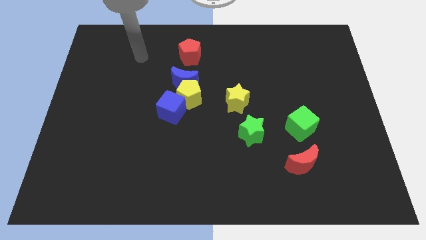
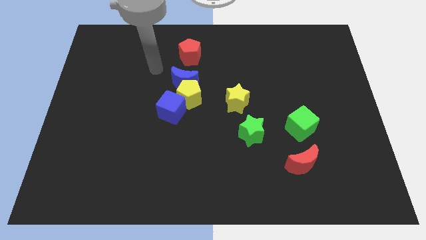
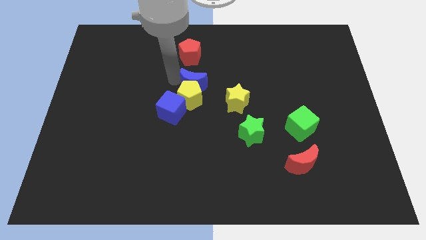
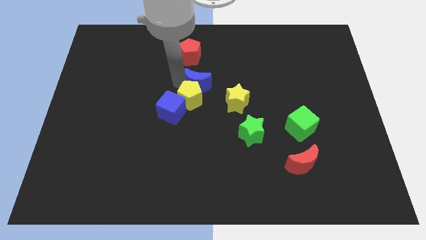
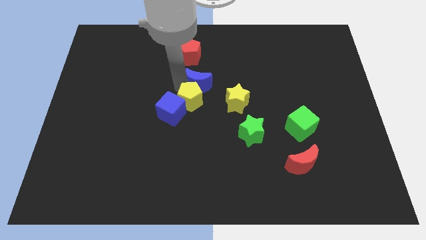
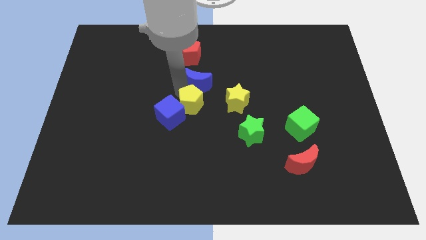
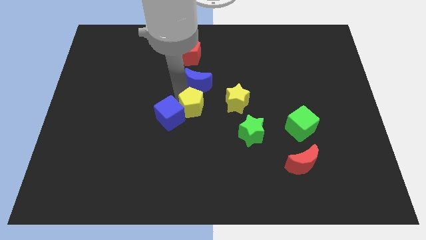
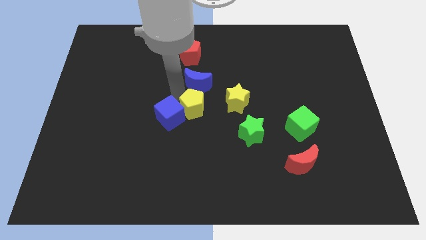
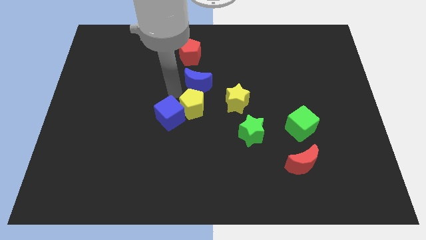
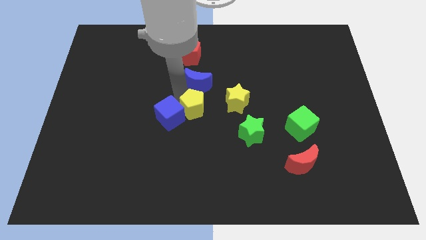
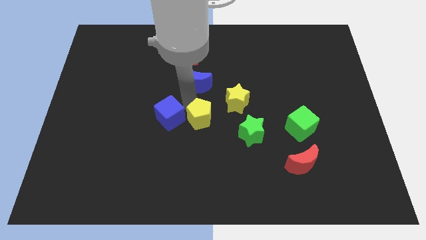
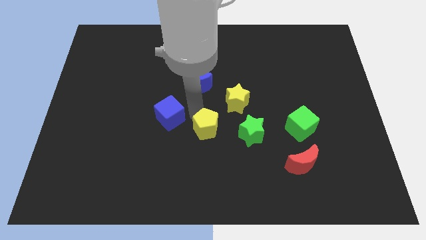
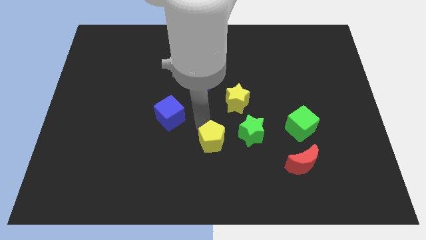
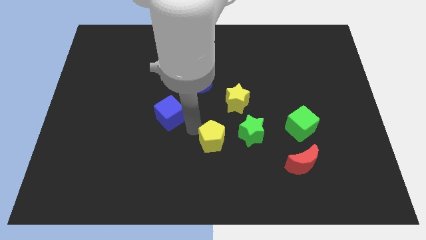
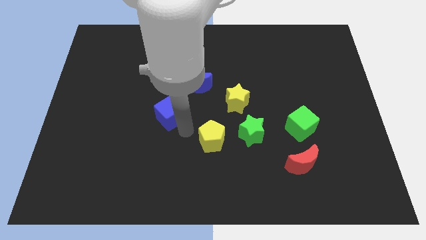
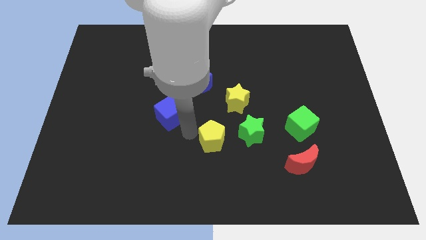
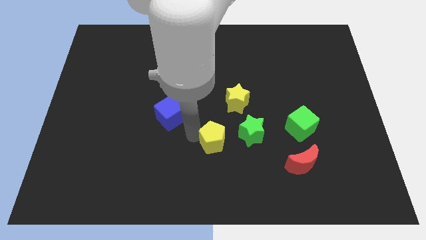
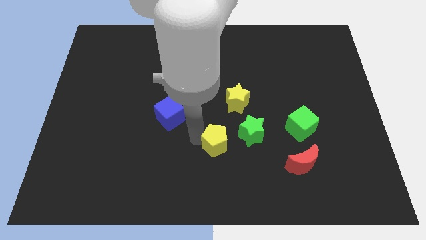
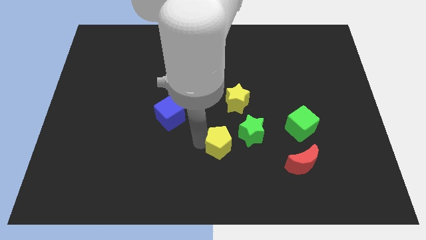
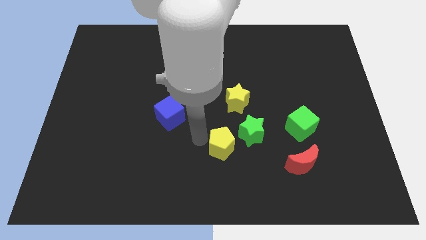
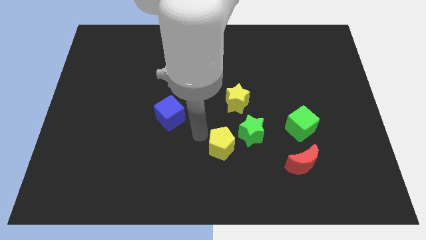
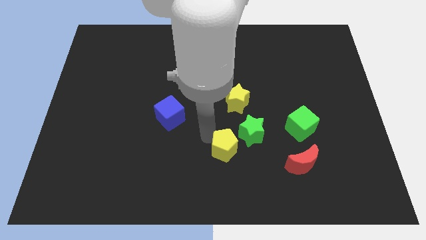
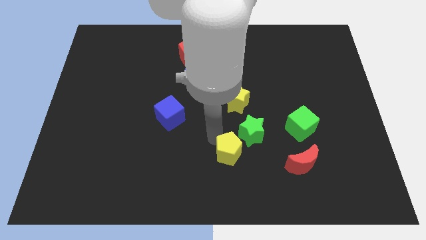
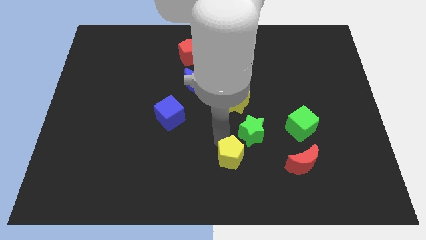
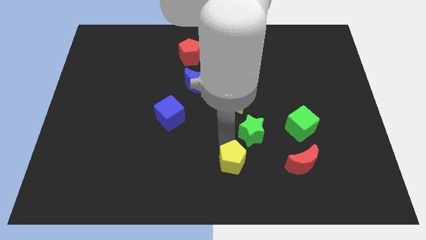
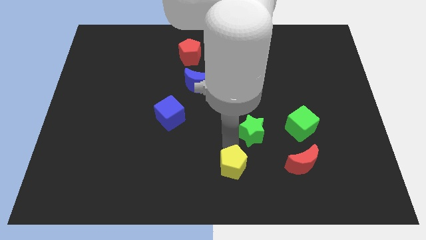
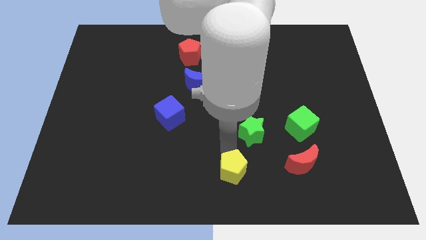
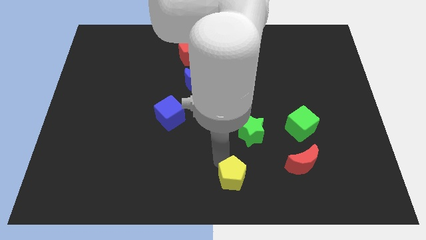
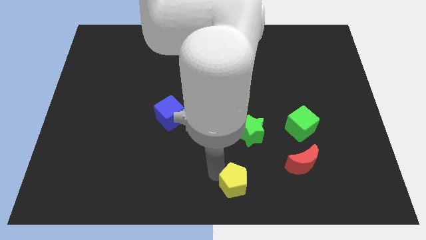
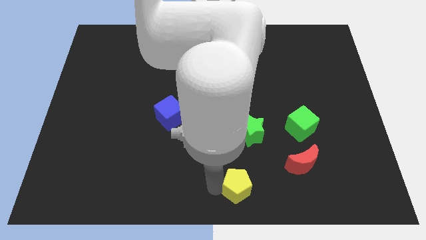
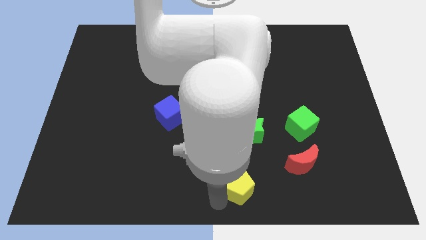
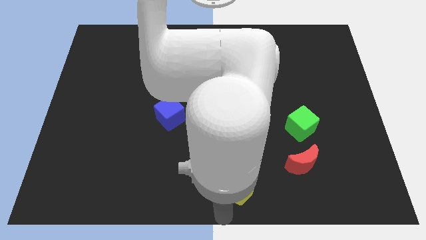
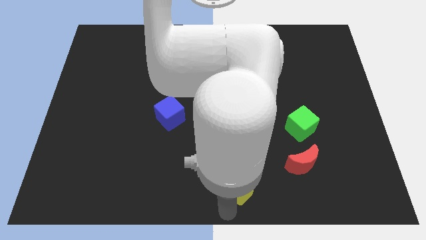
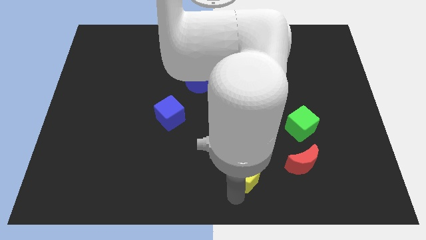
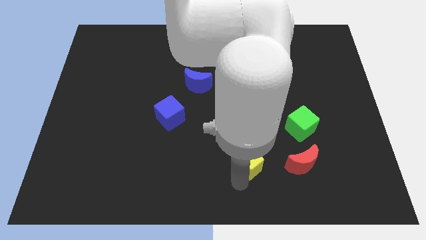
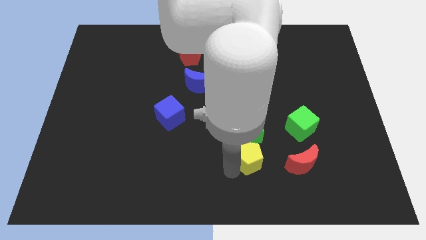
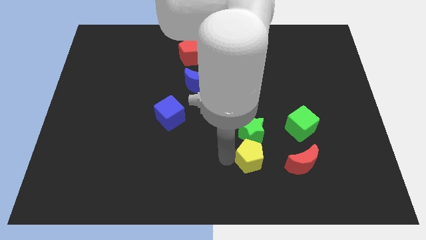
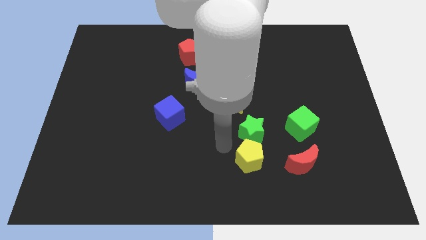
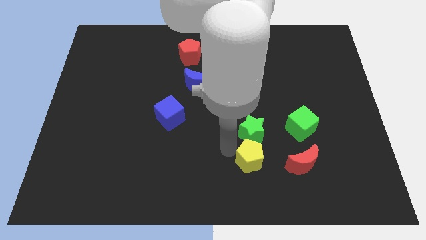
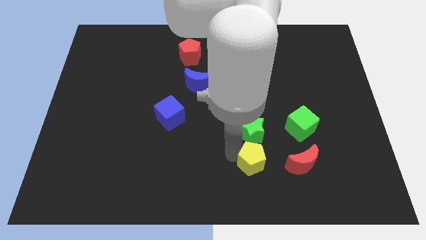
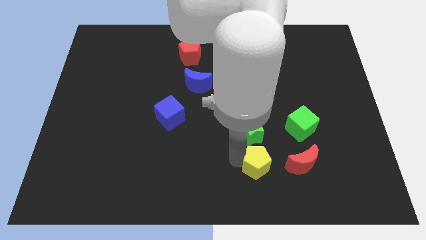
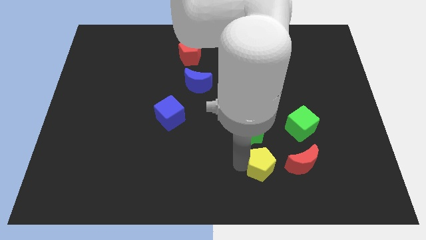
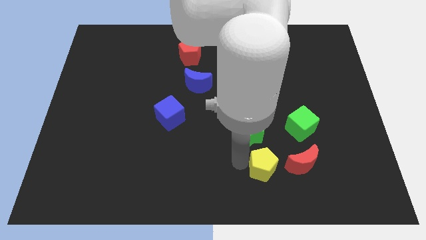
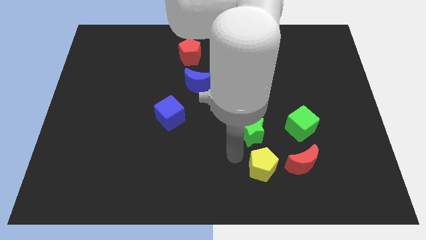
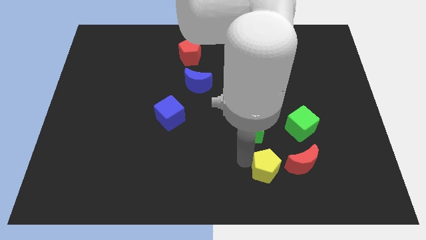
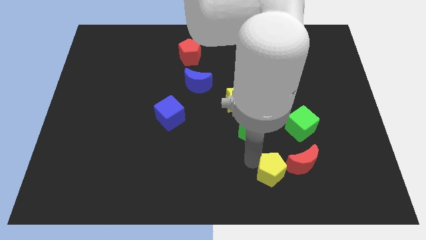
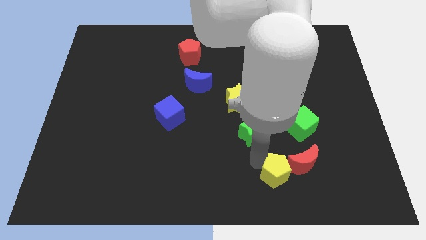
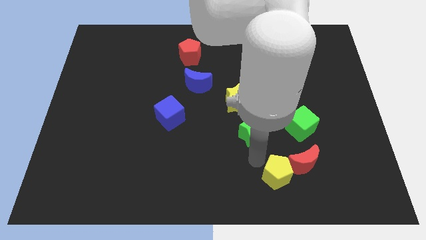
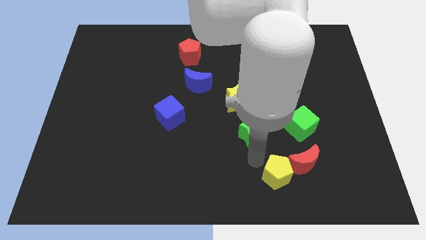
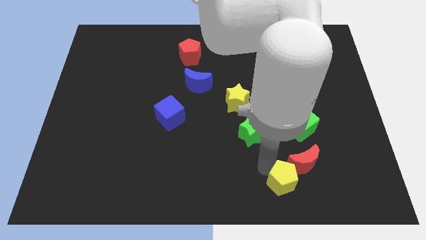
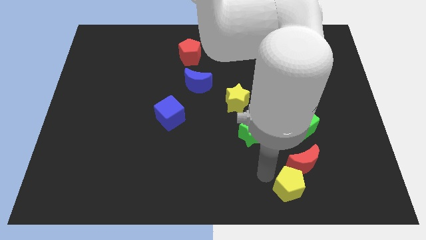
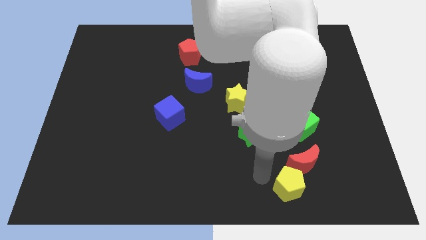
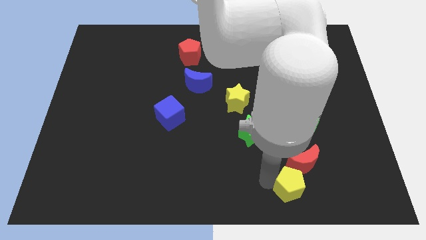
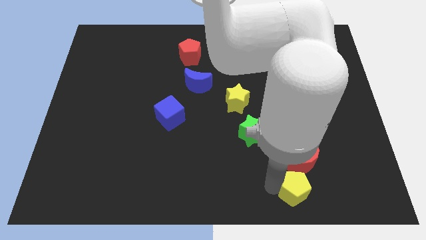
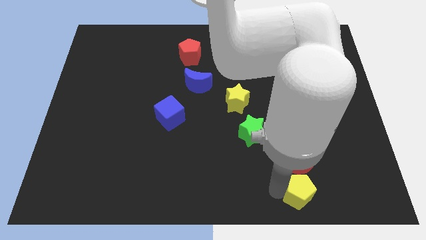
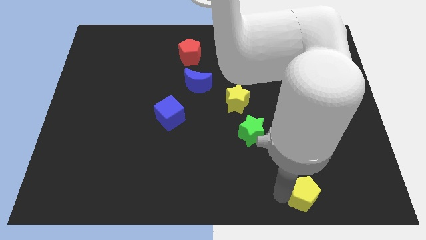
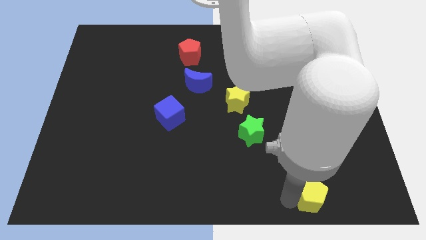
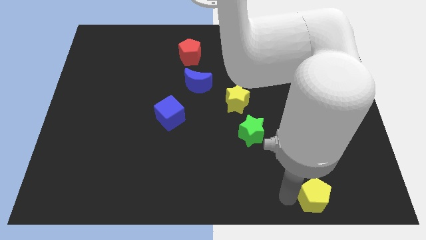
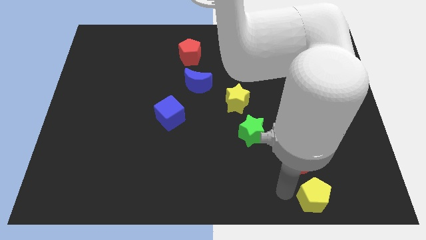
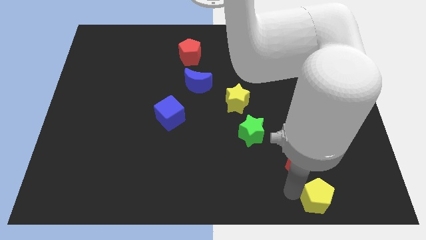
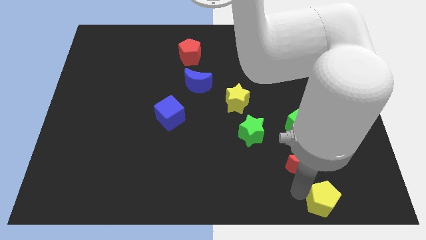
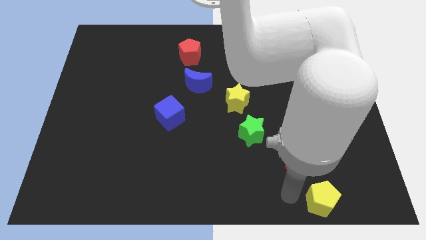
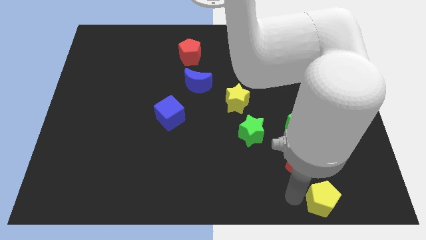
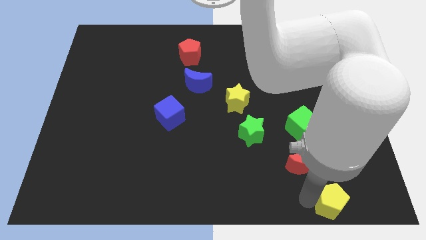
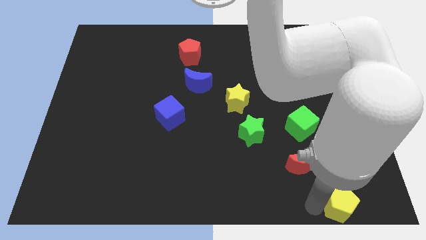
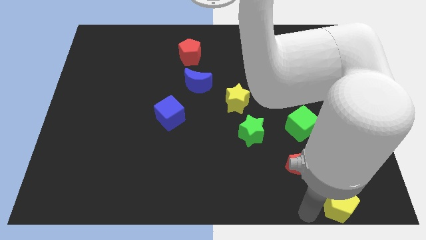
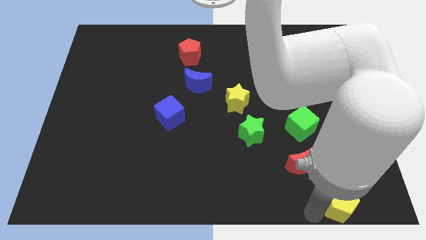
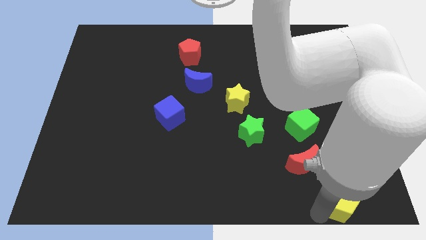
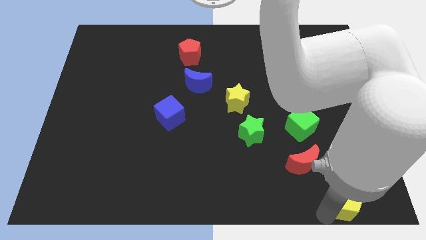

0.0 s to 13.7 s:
slide the yellow pentagon to the bottom right of the board
